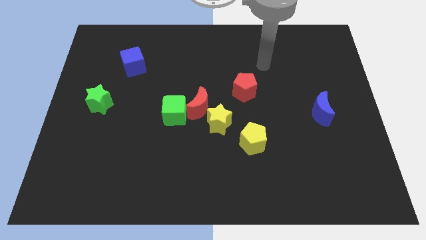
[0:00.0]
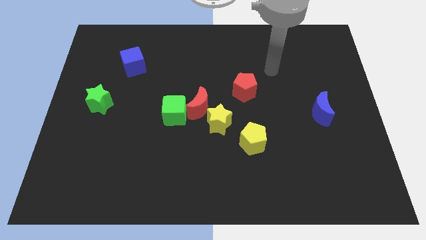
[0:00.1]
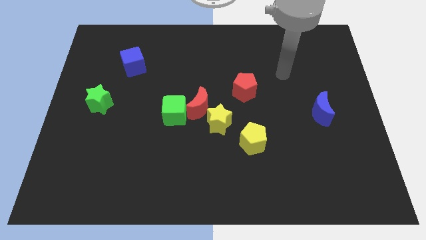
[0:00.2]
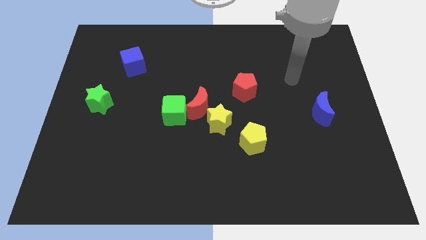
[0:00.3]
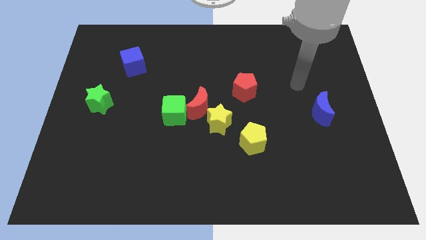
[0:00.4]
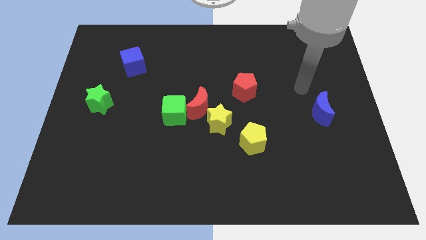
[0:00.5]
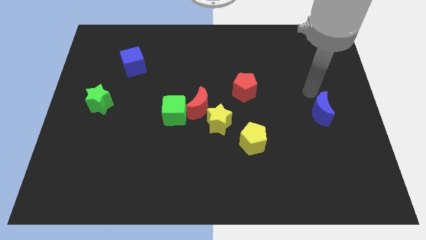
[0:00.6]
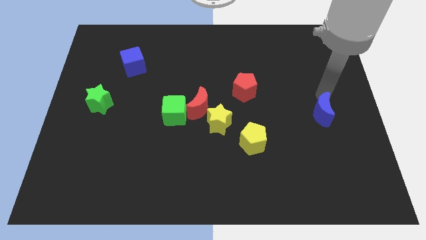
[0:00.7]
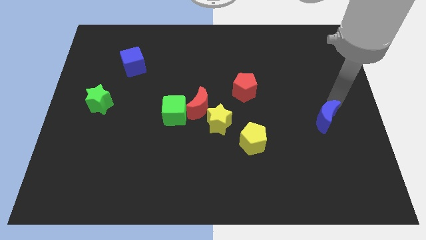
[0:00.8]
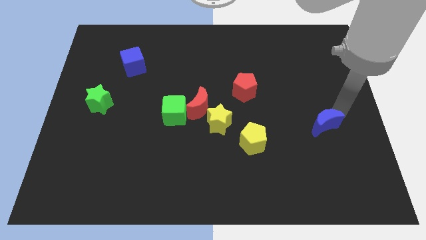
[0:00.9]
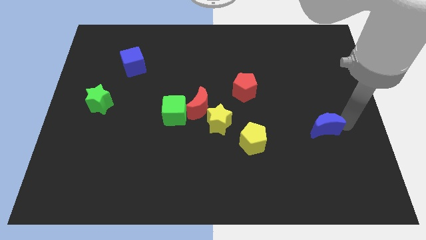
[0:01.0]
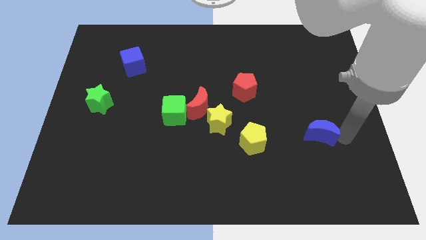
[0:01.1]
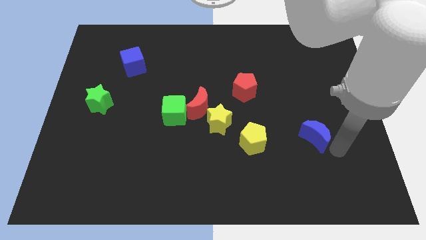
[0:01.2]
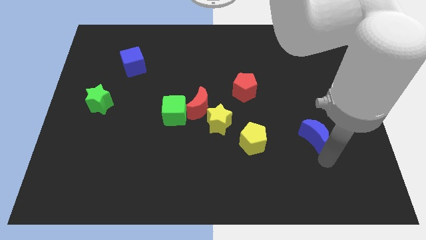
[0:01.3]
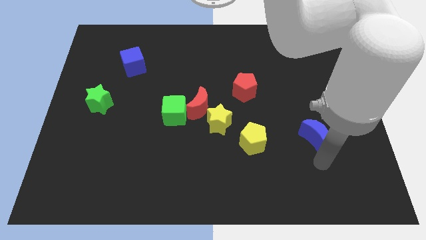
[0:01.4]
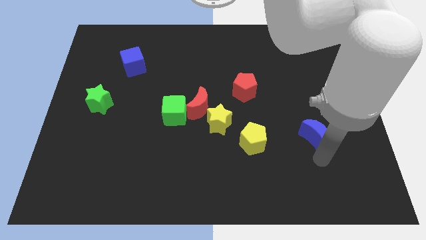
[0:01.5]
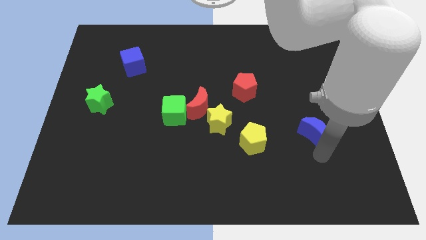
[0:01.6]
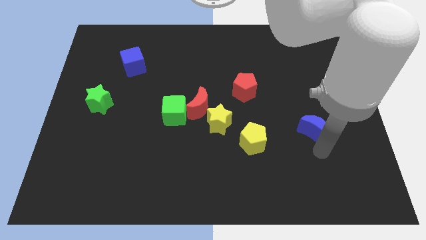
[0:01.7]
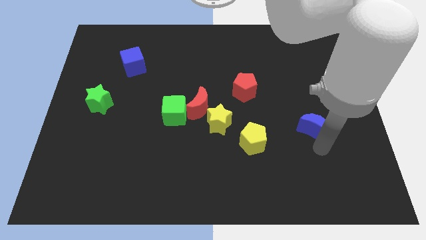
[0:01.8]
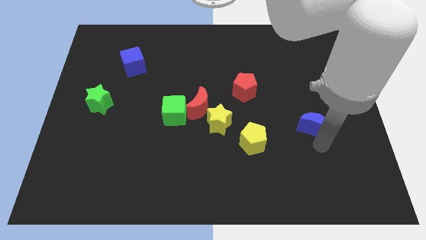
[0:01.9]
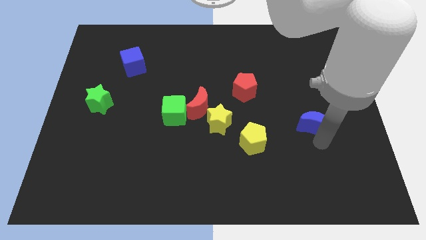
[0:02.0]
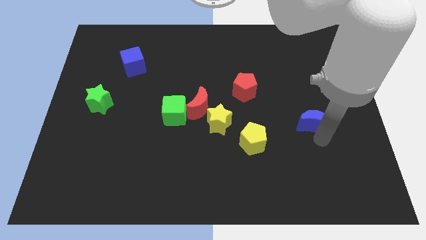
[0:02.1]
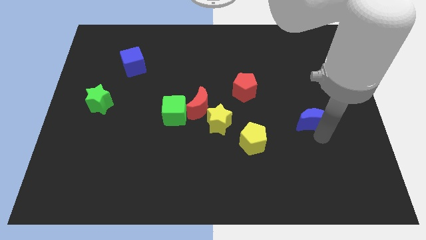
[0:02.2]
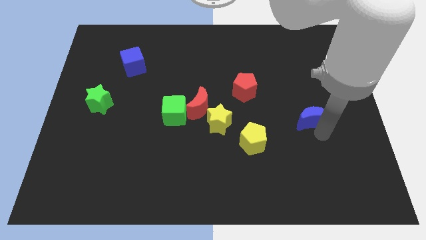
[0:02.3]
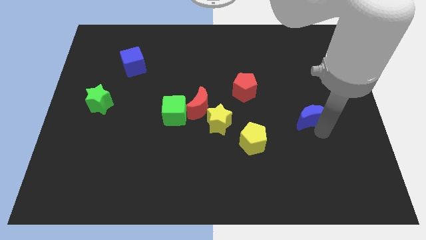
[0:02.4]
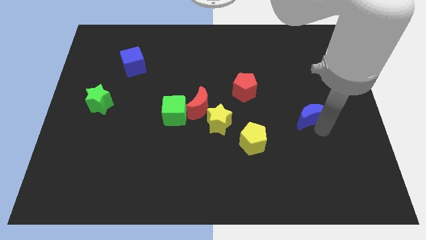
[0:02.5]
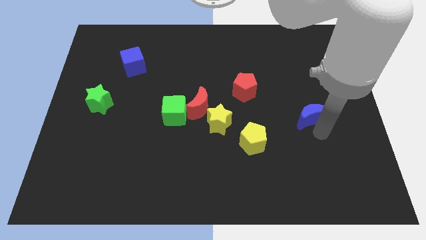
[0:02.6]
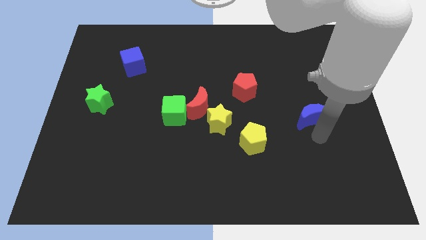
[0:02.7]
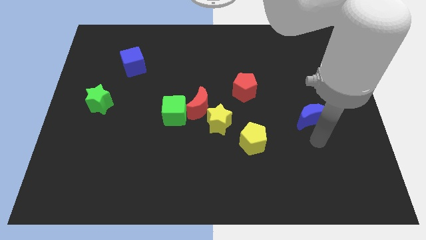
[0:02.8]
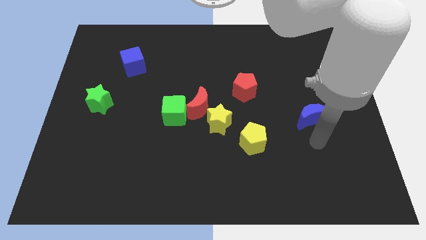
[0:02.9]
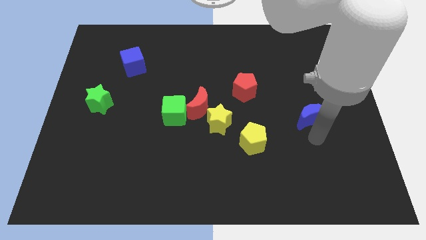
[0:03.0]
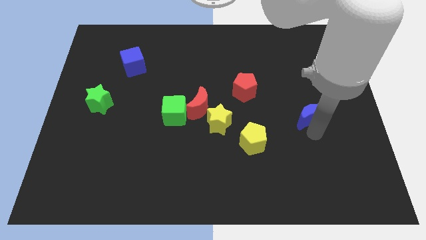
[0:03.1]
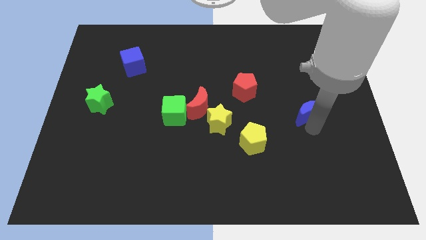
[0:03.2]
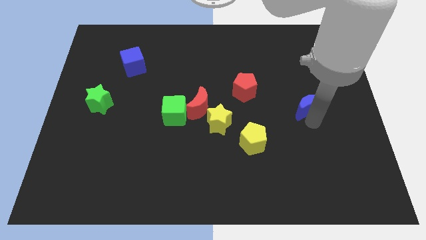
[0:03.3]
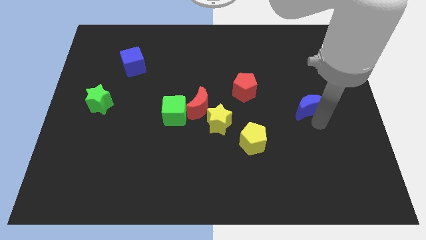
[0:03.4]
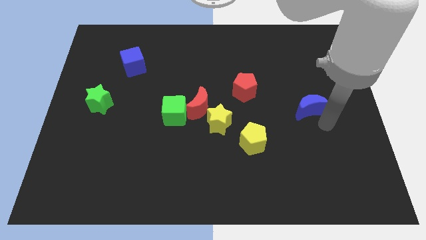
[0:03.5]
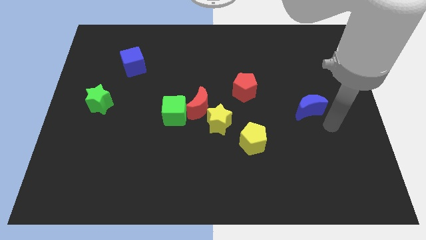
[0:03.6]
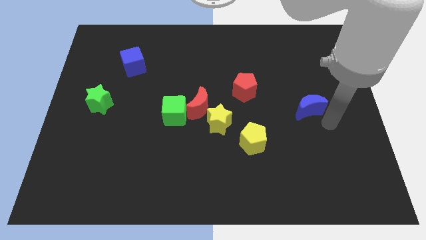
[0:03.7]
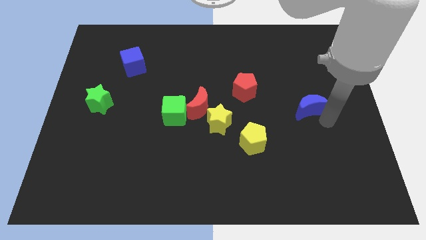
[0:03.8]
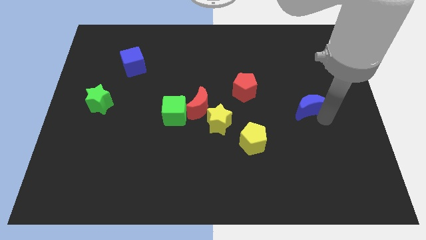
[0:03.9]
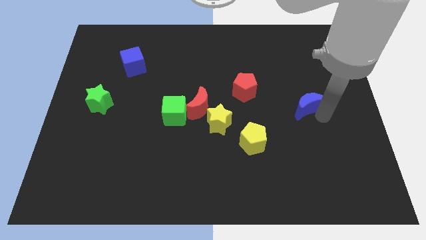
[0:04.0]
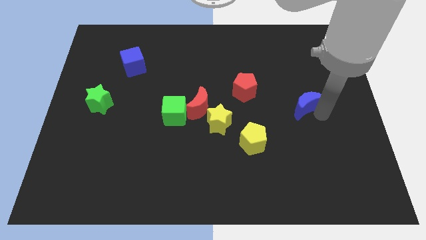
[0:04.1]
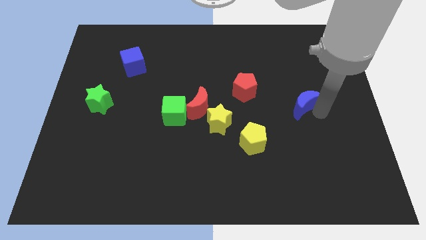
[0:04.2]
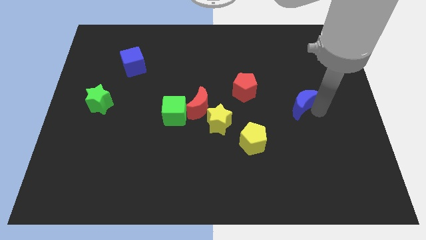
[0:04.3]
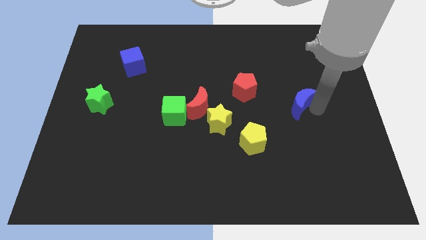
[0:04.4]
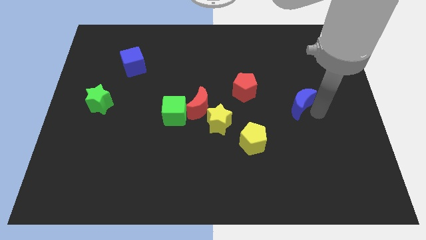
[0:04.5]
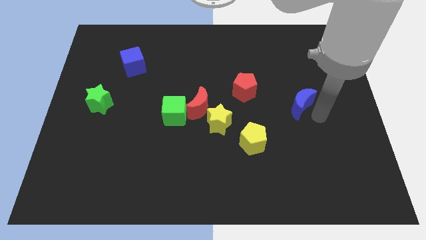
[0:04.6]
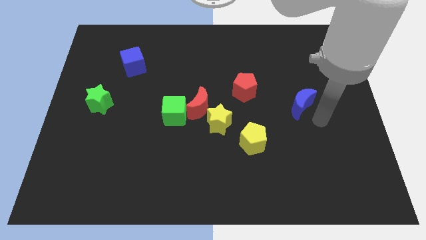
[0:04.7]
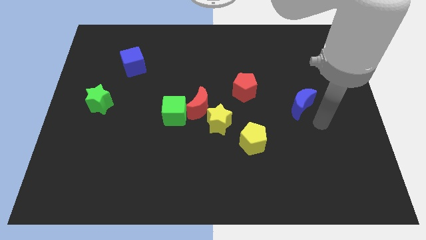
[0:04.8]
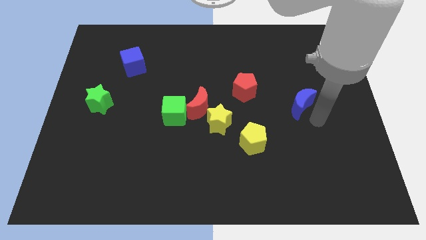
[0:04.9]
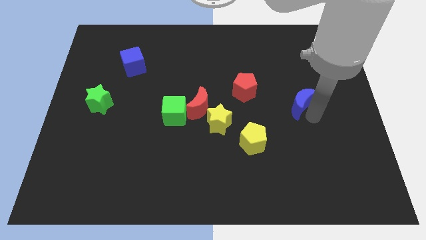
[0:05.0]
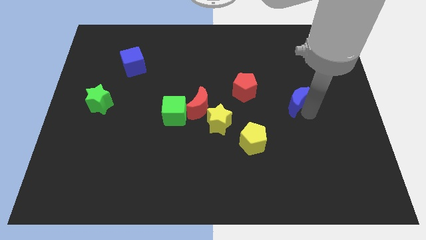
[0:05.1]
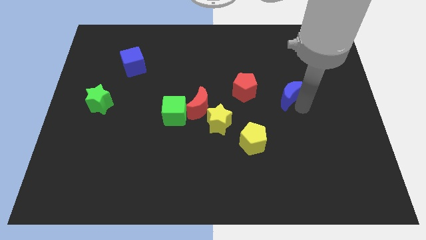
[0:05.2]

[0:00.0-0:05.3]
slide the blue moon a bit upwards and left diagonally

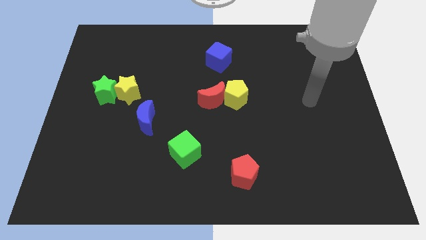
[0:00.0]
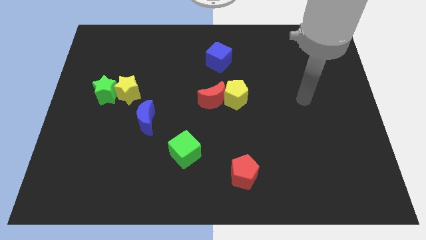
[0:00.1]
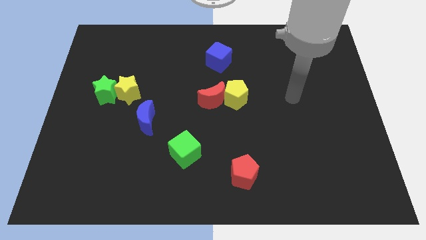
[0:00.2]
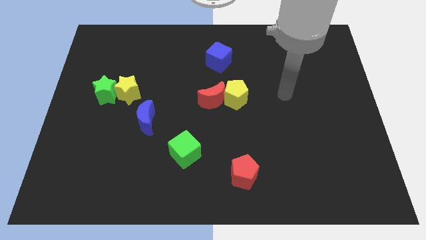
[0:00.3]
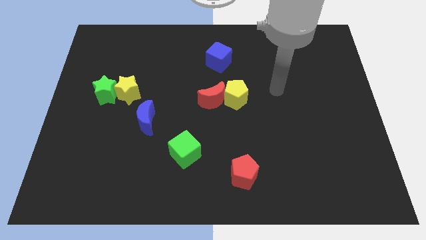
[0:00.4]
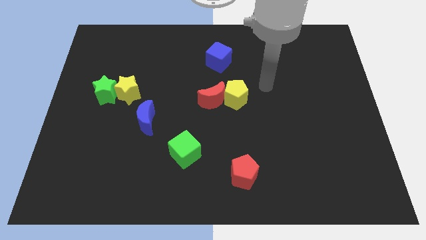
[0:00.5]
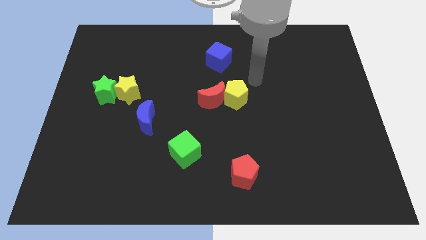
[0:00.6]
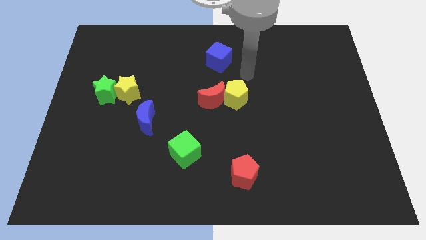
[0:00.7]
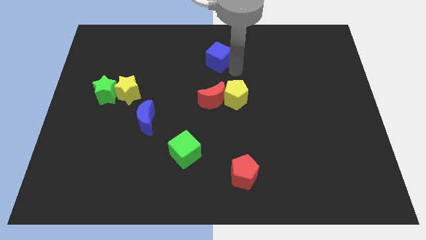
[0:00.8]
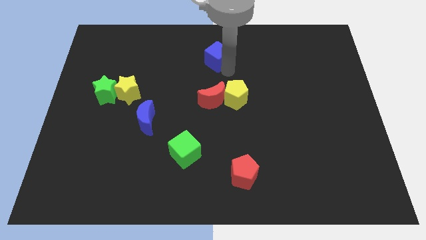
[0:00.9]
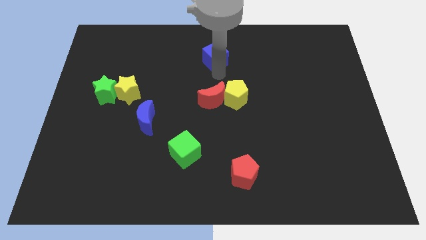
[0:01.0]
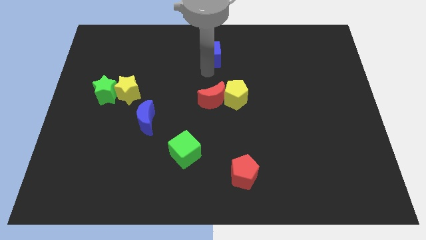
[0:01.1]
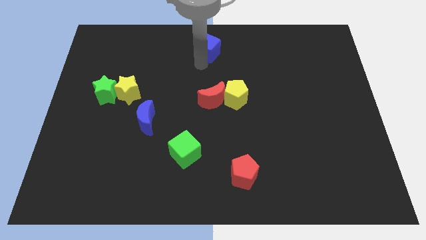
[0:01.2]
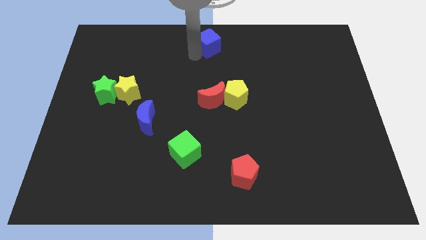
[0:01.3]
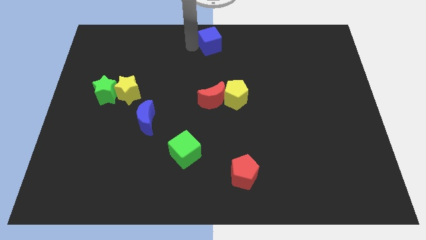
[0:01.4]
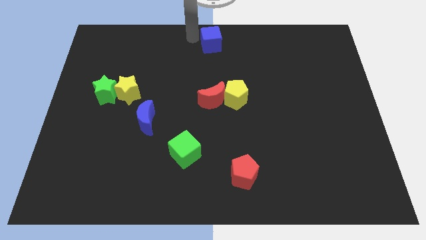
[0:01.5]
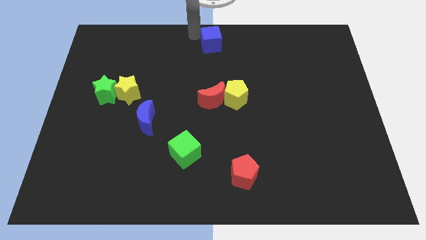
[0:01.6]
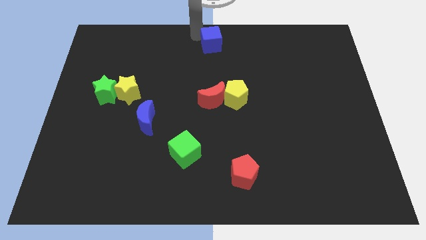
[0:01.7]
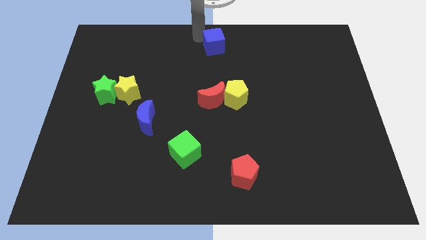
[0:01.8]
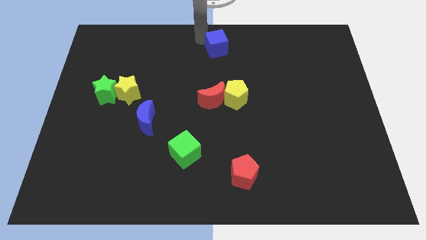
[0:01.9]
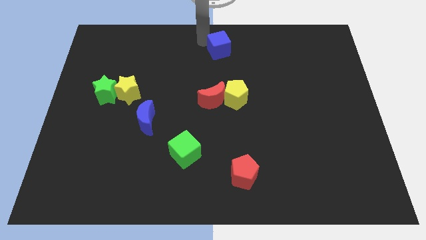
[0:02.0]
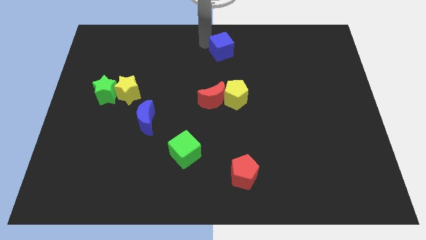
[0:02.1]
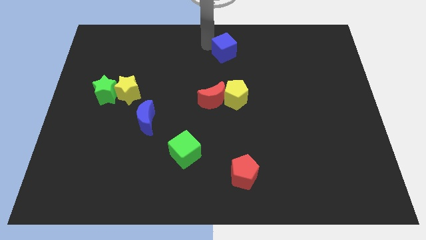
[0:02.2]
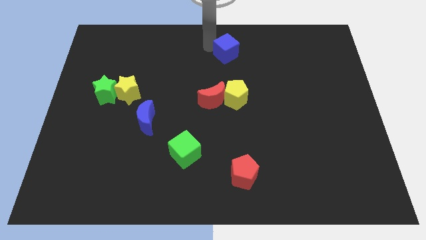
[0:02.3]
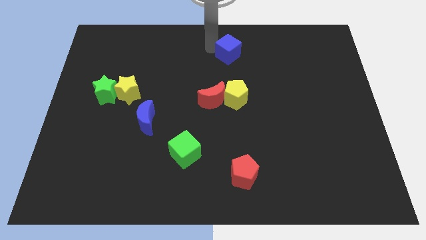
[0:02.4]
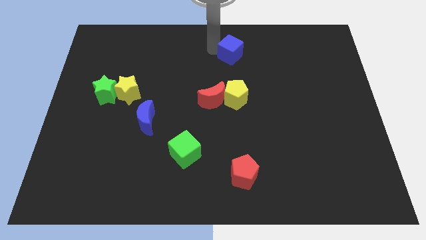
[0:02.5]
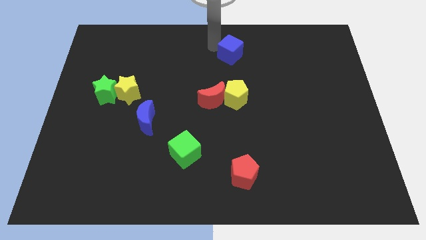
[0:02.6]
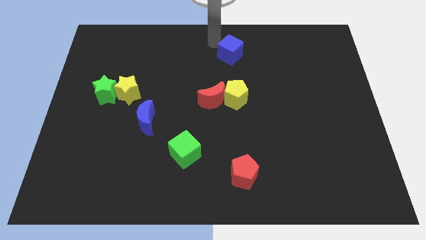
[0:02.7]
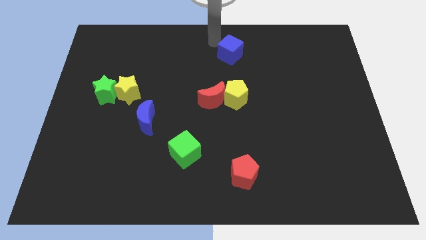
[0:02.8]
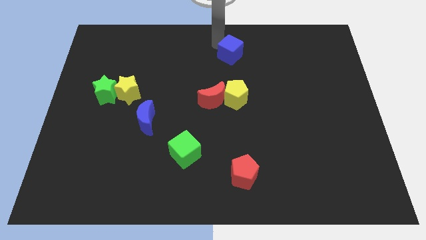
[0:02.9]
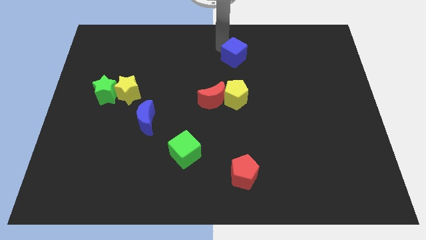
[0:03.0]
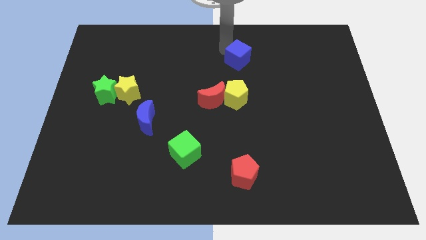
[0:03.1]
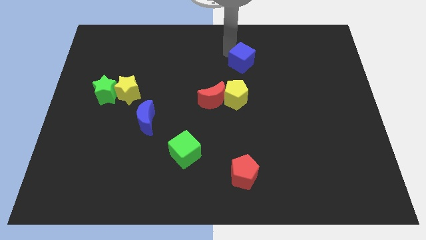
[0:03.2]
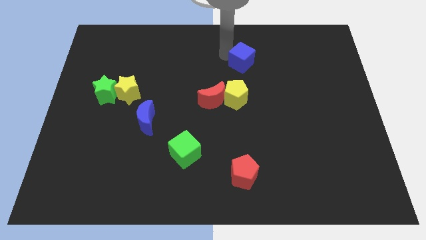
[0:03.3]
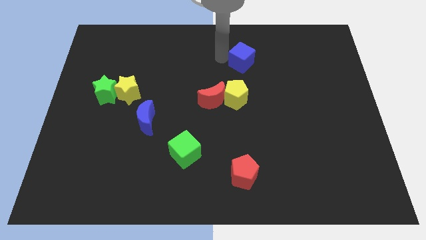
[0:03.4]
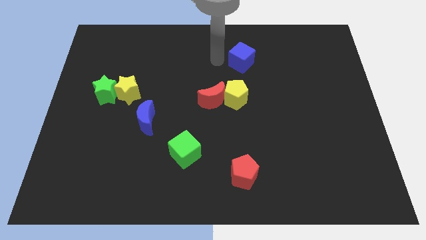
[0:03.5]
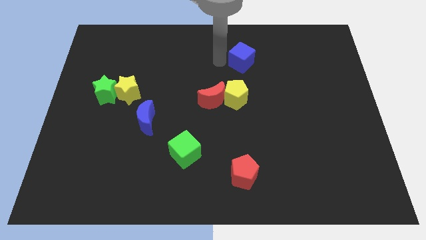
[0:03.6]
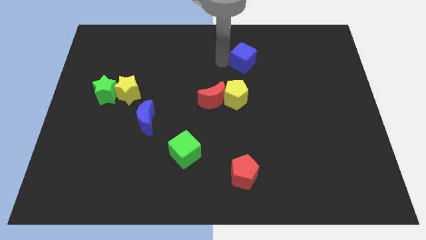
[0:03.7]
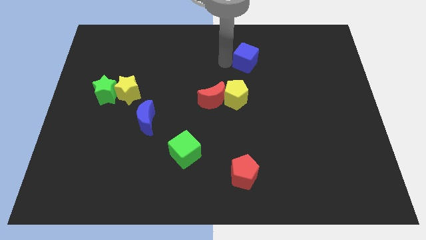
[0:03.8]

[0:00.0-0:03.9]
slightly slide the blue cube right
